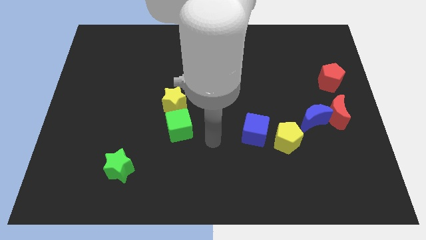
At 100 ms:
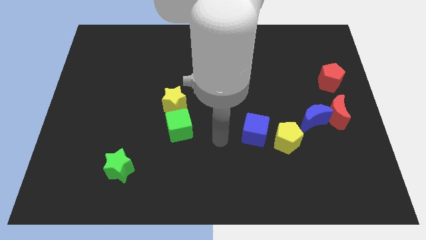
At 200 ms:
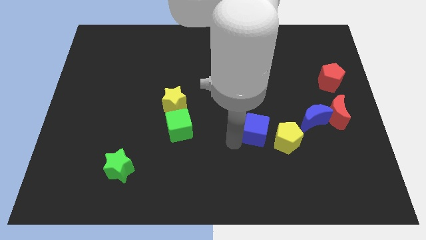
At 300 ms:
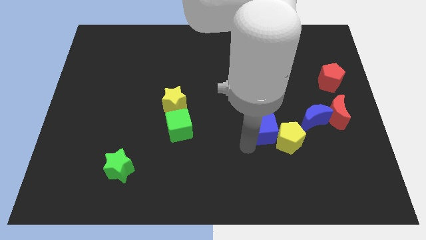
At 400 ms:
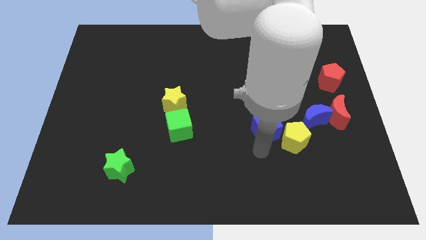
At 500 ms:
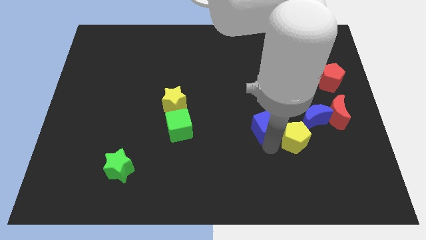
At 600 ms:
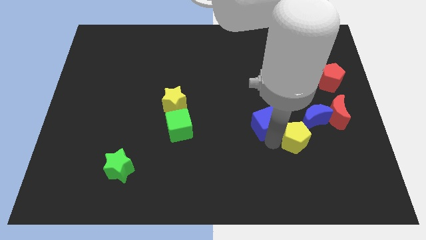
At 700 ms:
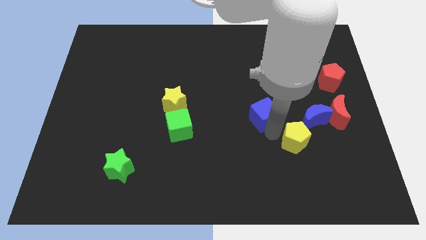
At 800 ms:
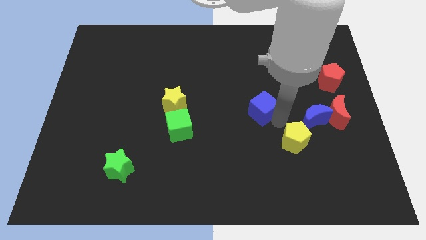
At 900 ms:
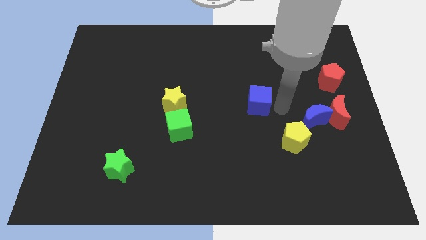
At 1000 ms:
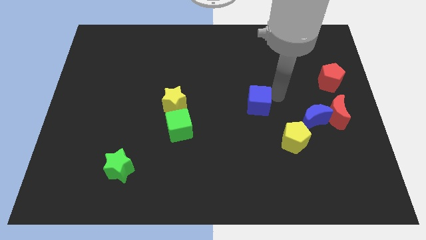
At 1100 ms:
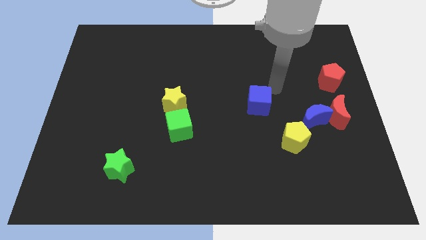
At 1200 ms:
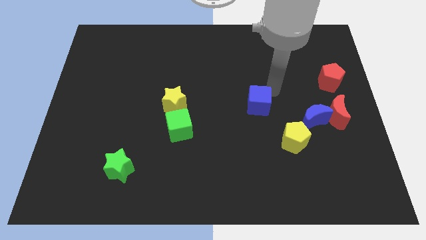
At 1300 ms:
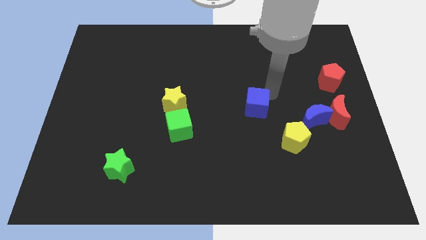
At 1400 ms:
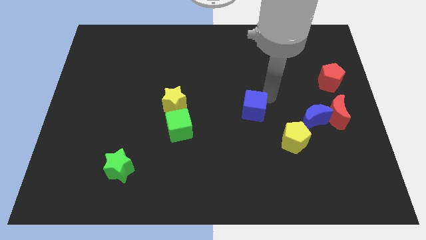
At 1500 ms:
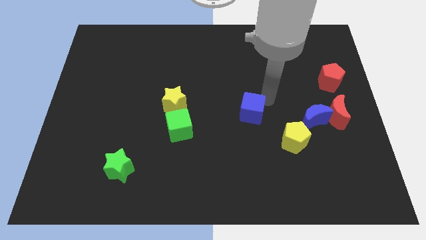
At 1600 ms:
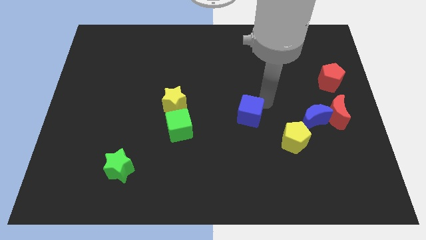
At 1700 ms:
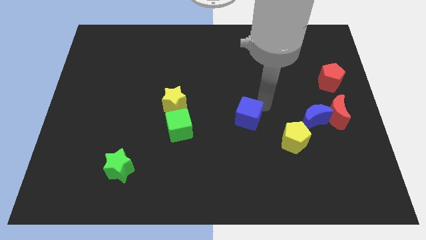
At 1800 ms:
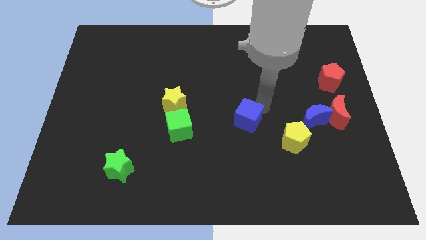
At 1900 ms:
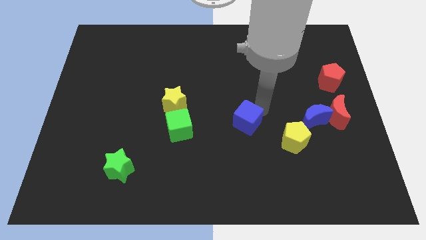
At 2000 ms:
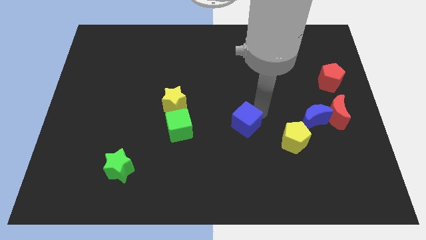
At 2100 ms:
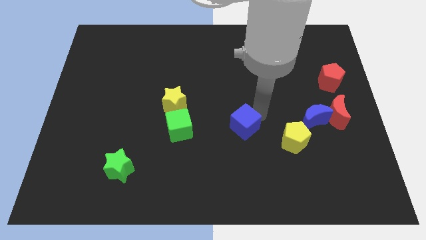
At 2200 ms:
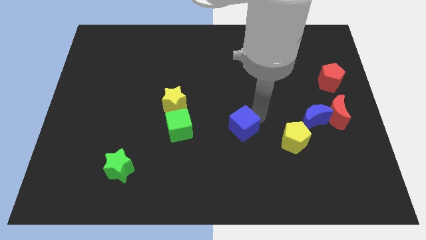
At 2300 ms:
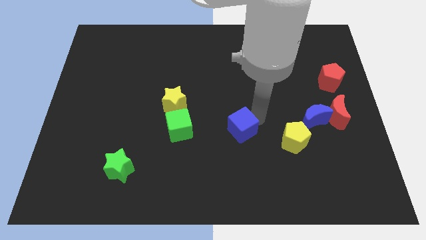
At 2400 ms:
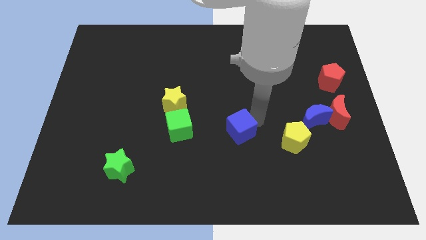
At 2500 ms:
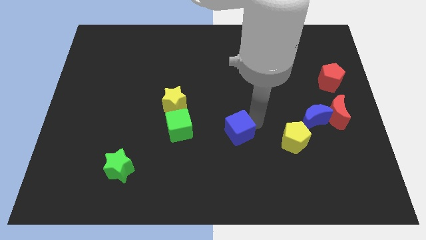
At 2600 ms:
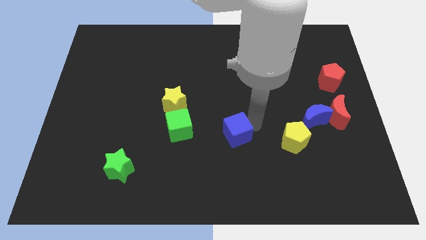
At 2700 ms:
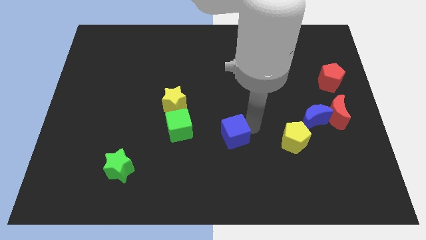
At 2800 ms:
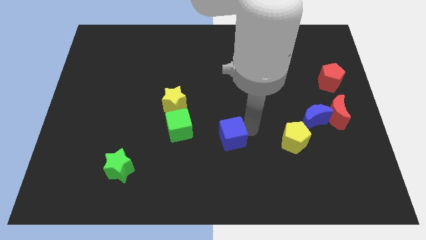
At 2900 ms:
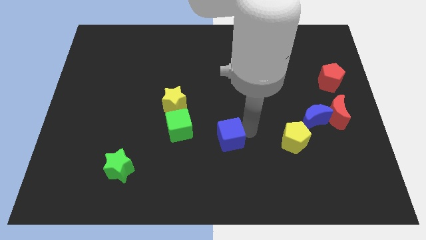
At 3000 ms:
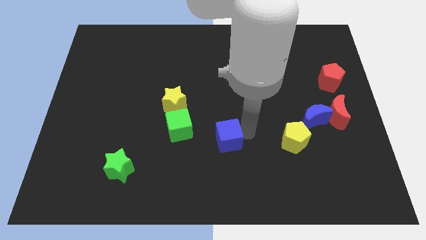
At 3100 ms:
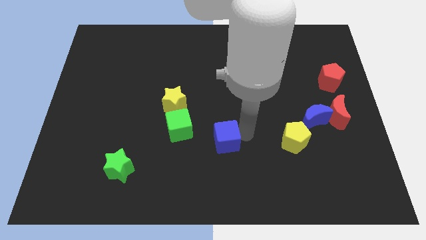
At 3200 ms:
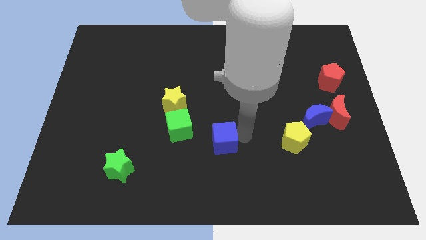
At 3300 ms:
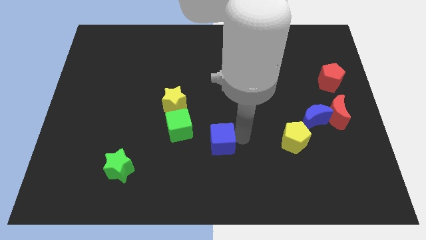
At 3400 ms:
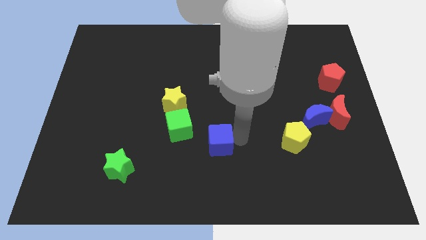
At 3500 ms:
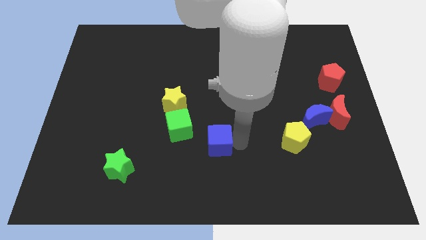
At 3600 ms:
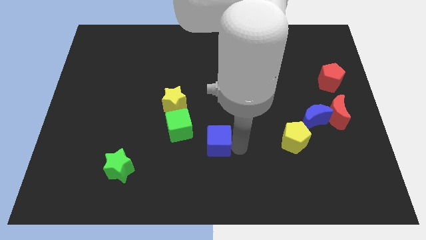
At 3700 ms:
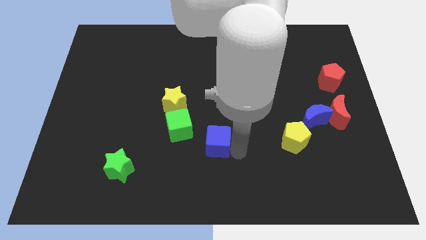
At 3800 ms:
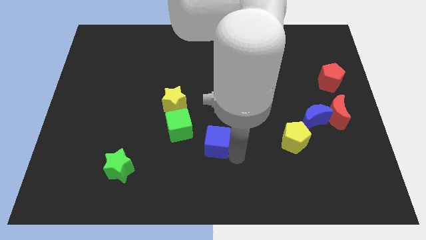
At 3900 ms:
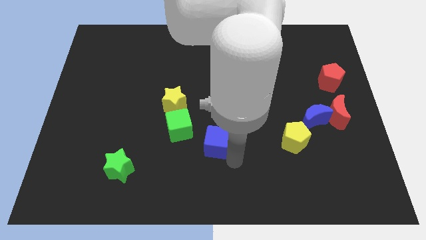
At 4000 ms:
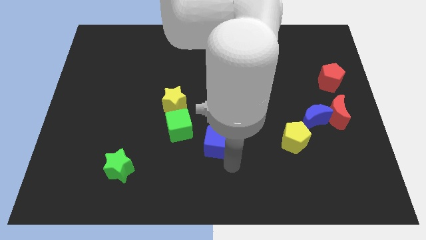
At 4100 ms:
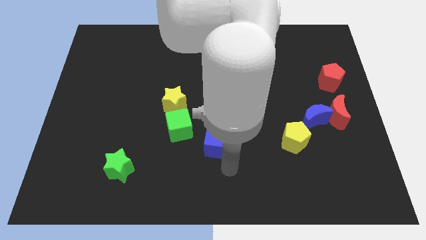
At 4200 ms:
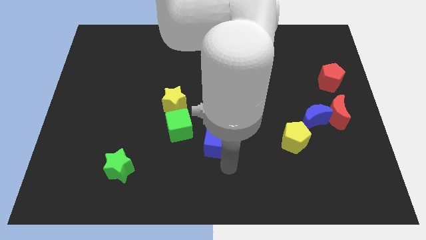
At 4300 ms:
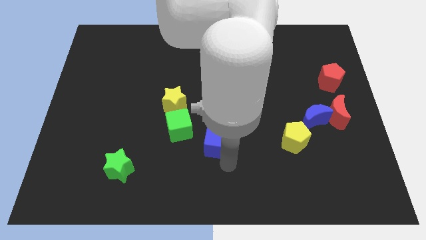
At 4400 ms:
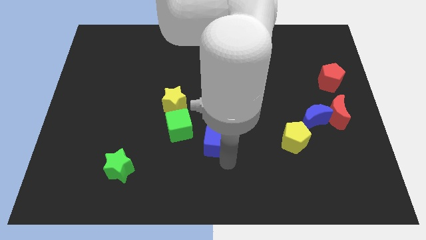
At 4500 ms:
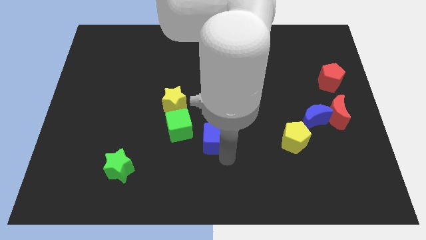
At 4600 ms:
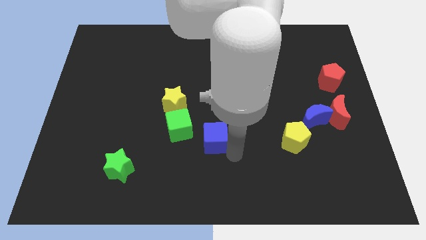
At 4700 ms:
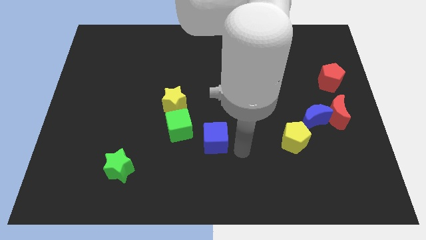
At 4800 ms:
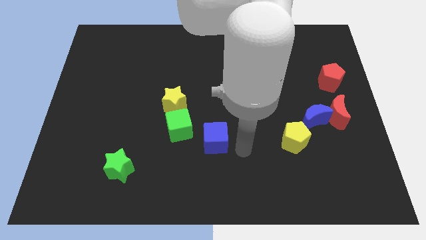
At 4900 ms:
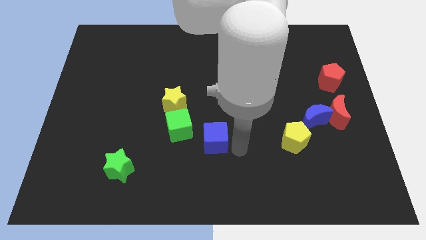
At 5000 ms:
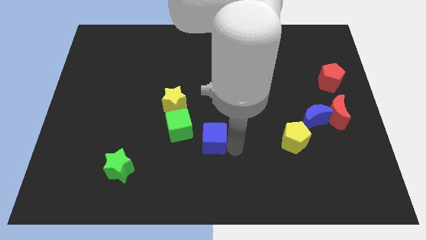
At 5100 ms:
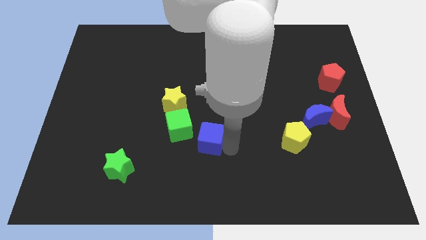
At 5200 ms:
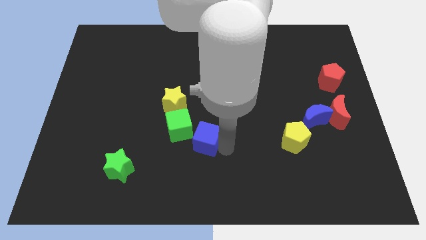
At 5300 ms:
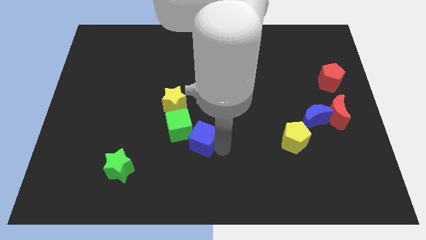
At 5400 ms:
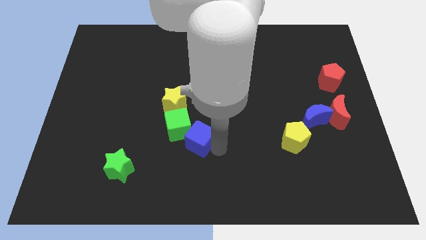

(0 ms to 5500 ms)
slide the blue cube close to the green cube

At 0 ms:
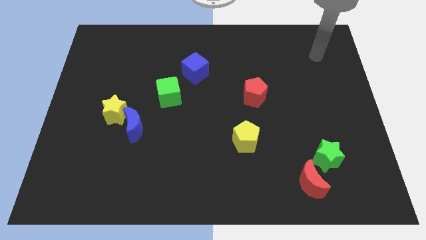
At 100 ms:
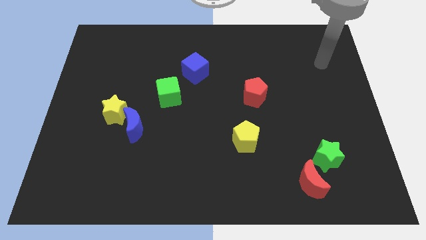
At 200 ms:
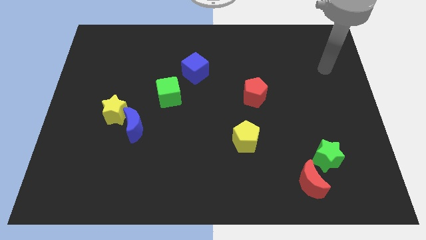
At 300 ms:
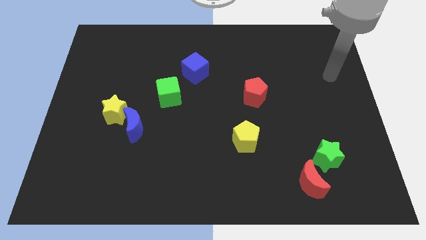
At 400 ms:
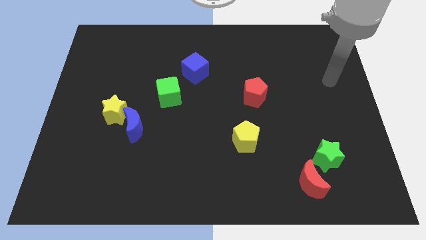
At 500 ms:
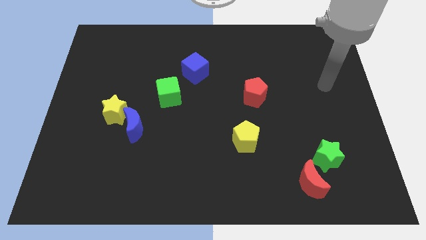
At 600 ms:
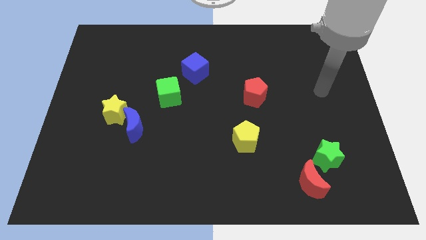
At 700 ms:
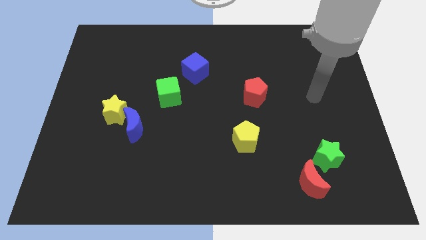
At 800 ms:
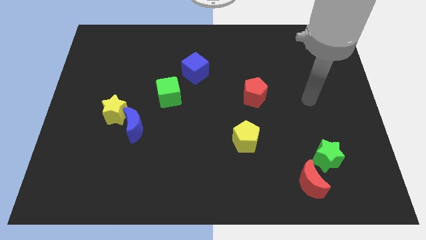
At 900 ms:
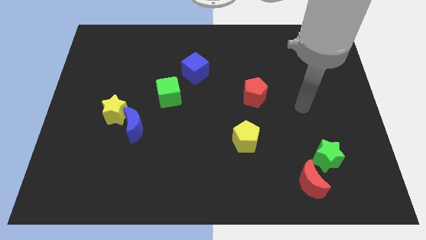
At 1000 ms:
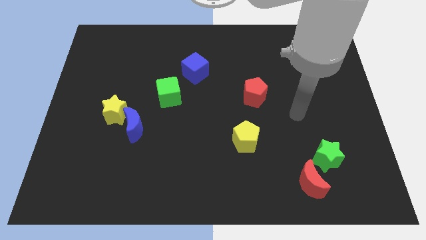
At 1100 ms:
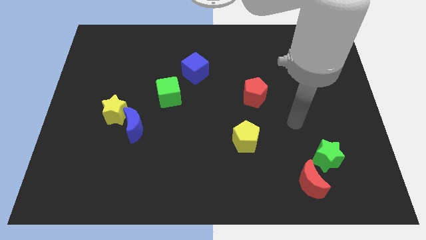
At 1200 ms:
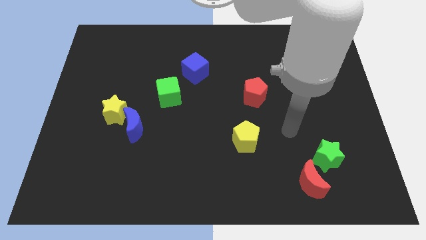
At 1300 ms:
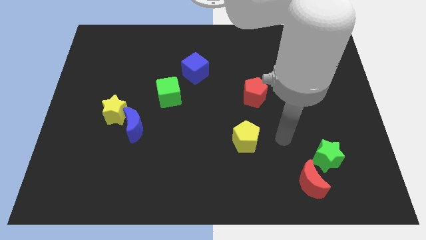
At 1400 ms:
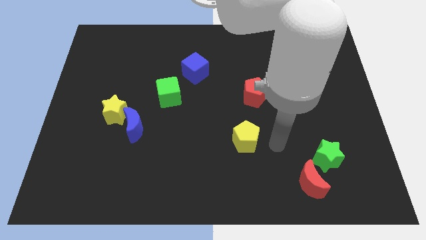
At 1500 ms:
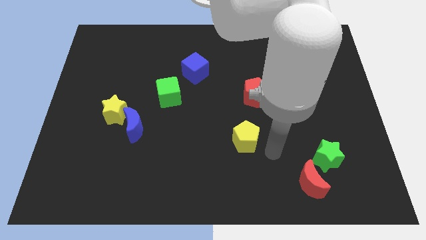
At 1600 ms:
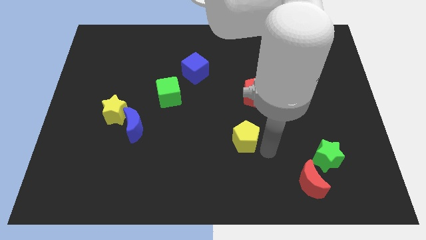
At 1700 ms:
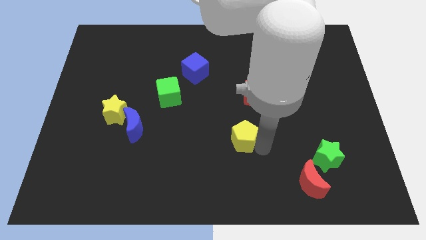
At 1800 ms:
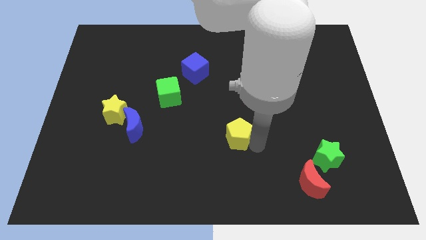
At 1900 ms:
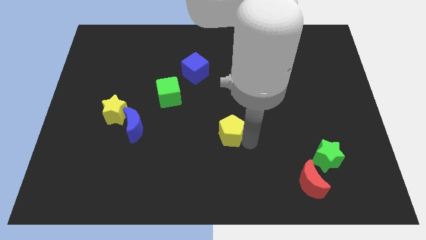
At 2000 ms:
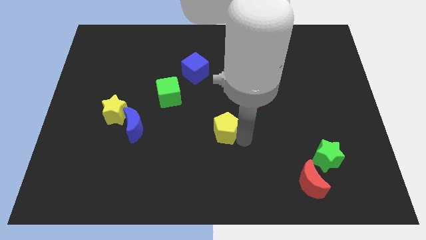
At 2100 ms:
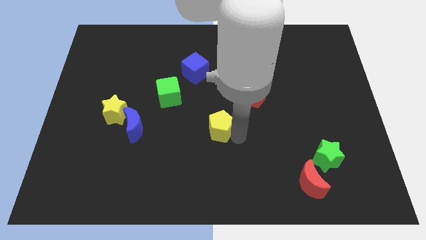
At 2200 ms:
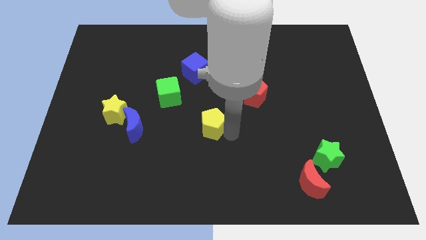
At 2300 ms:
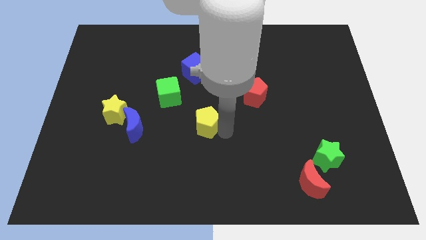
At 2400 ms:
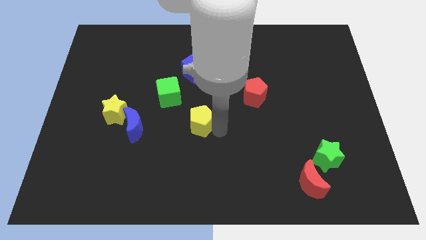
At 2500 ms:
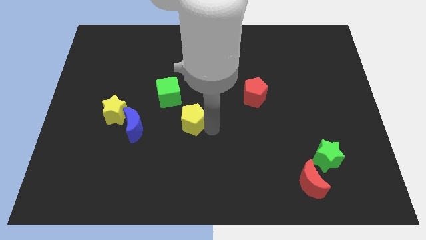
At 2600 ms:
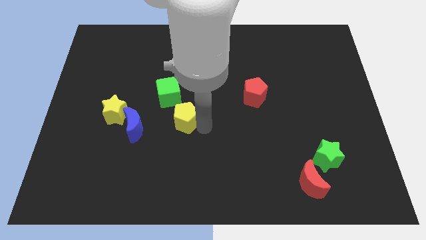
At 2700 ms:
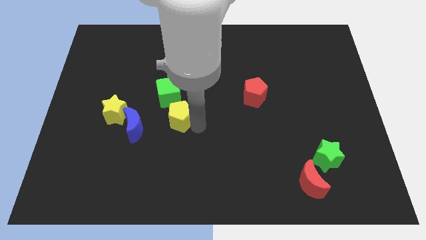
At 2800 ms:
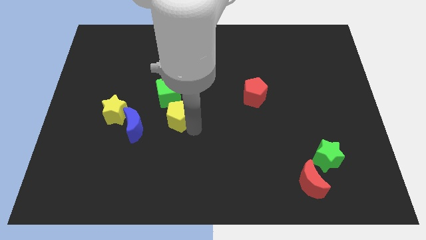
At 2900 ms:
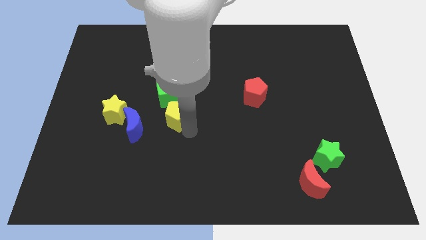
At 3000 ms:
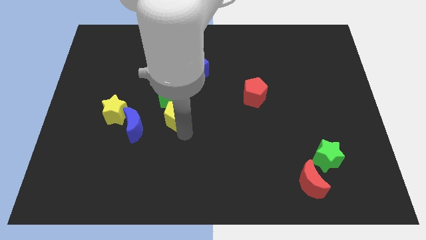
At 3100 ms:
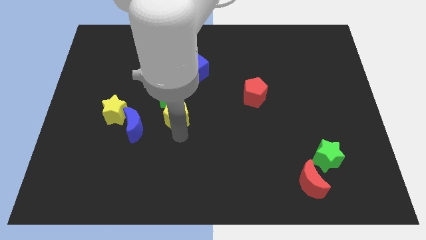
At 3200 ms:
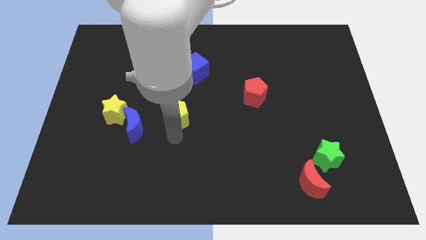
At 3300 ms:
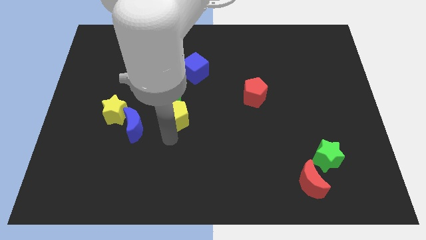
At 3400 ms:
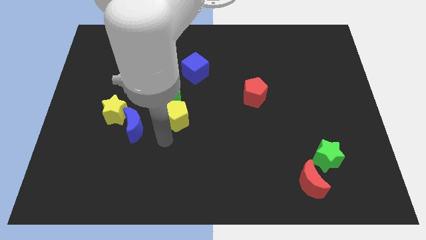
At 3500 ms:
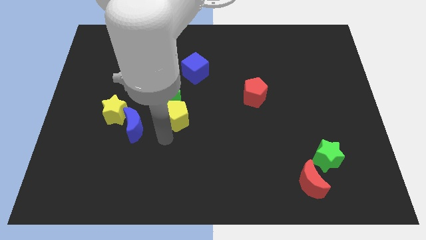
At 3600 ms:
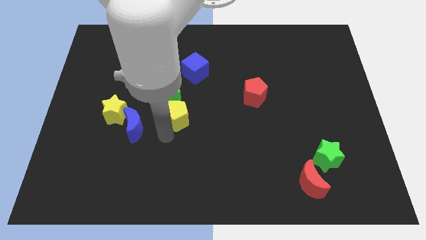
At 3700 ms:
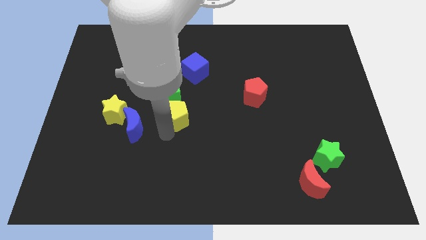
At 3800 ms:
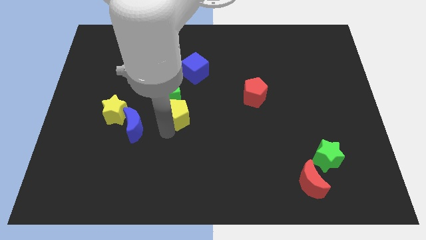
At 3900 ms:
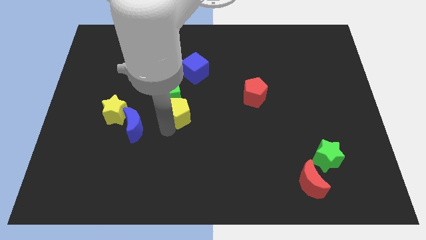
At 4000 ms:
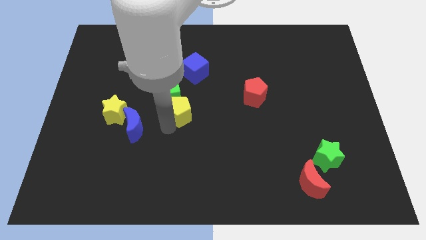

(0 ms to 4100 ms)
slide the yellow pentagon next to the green cube
